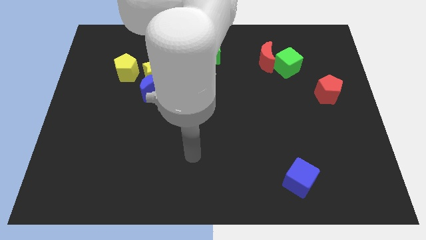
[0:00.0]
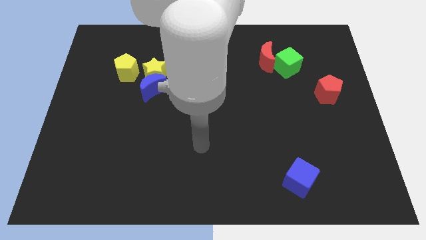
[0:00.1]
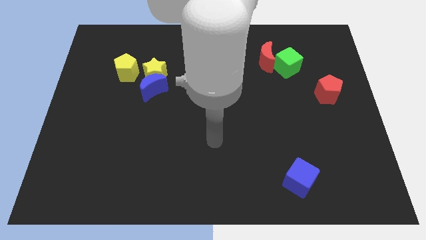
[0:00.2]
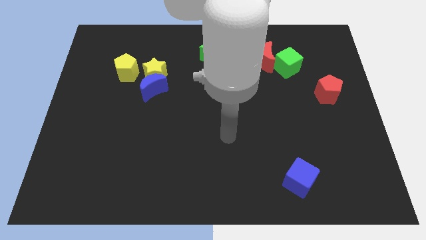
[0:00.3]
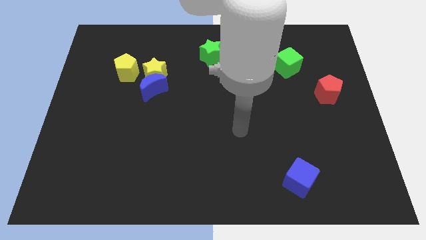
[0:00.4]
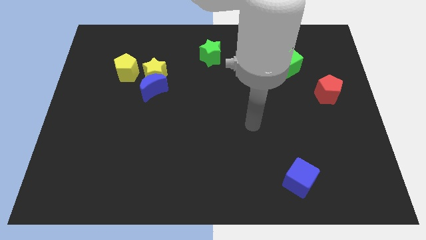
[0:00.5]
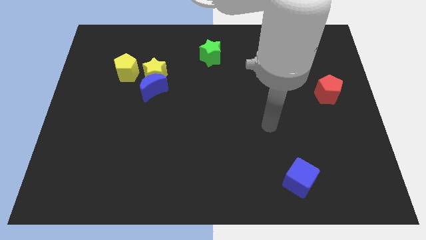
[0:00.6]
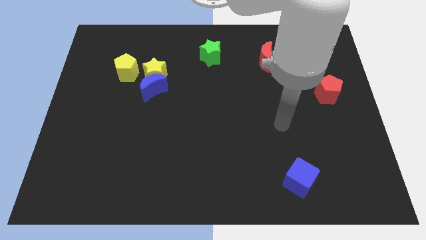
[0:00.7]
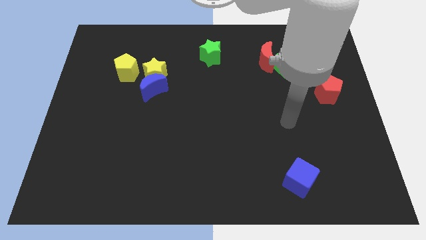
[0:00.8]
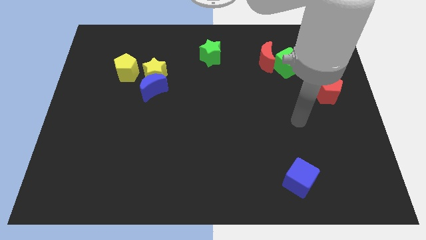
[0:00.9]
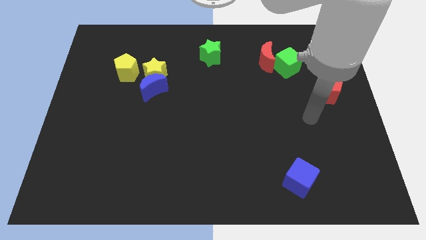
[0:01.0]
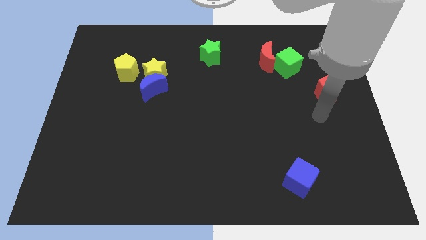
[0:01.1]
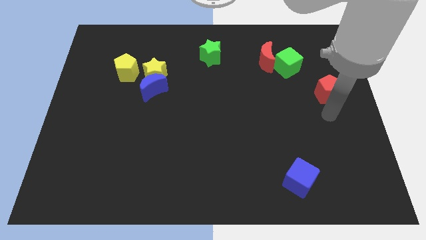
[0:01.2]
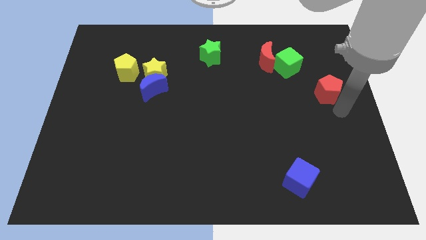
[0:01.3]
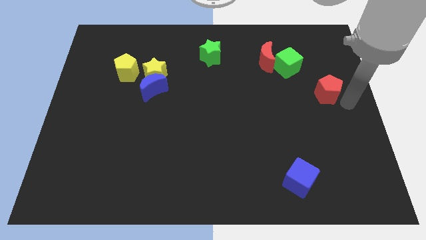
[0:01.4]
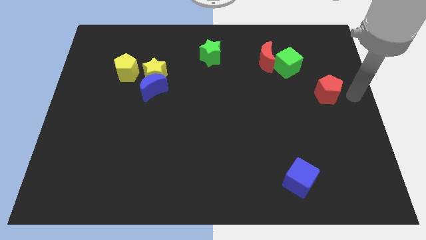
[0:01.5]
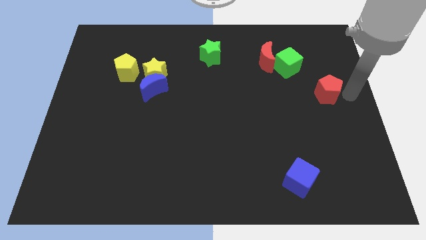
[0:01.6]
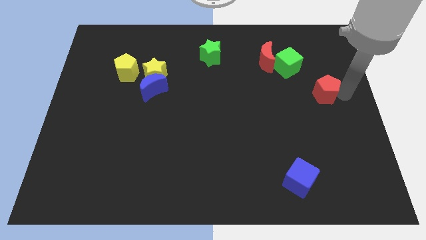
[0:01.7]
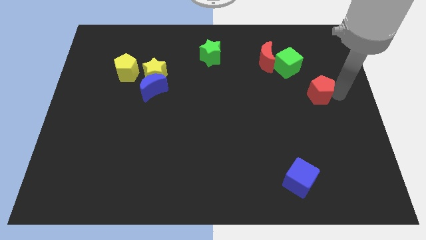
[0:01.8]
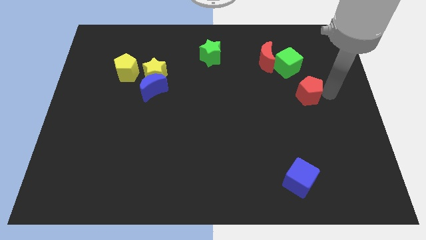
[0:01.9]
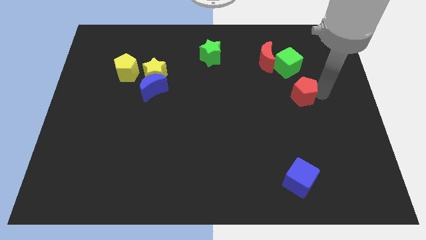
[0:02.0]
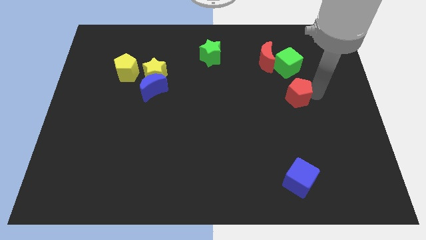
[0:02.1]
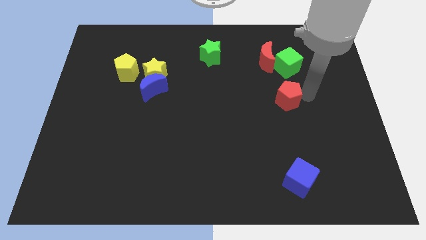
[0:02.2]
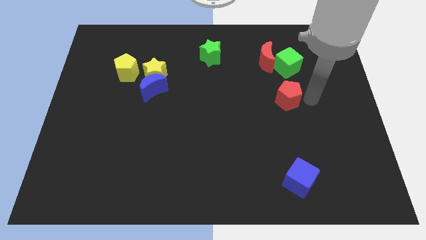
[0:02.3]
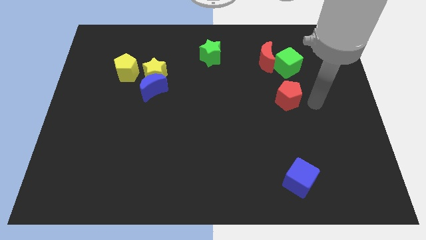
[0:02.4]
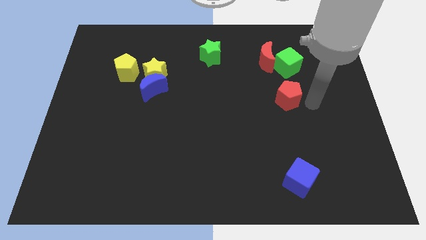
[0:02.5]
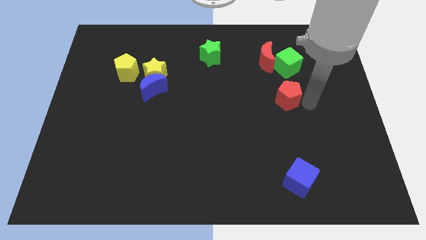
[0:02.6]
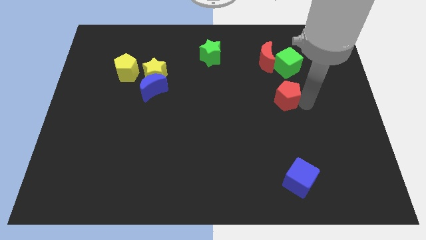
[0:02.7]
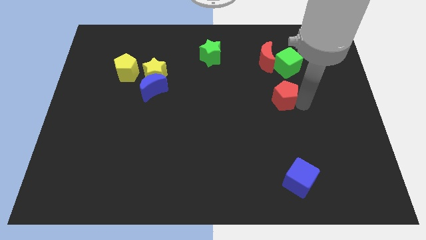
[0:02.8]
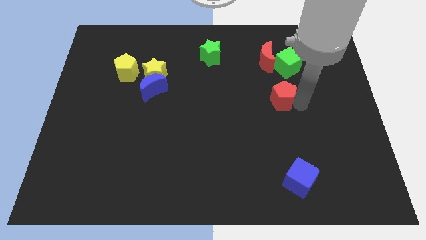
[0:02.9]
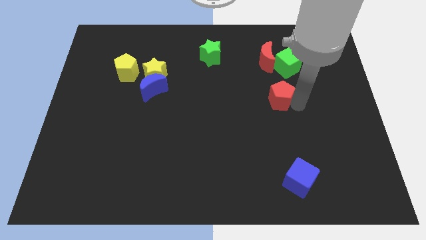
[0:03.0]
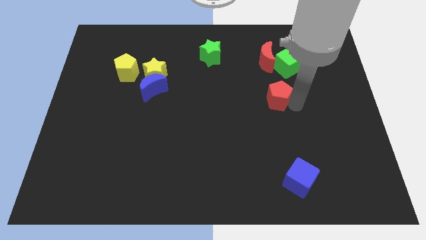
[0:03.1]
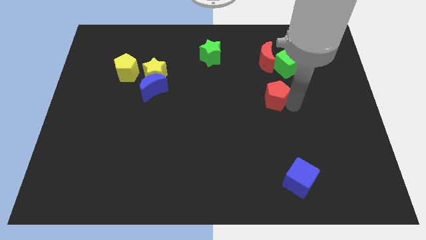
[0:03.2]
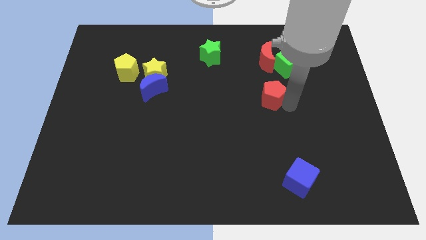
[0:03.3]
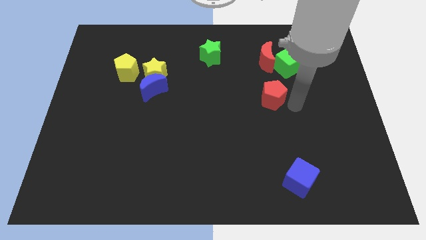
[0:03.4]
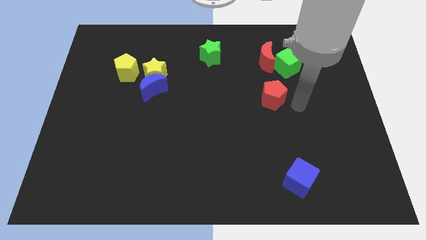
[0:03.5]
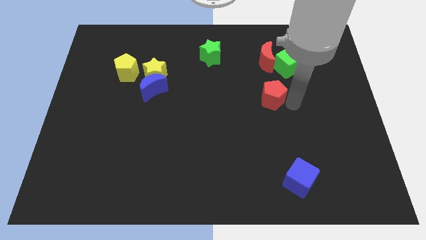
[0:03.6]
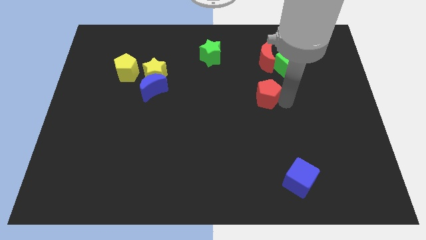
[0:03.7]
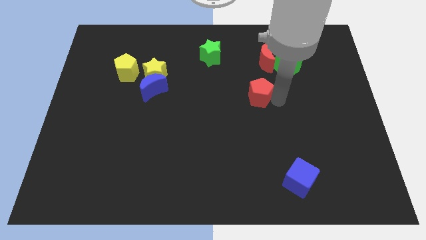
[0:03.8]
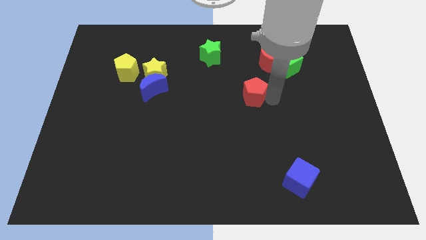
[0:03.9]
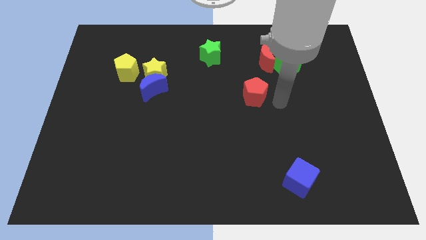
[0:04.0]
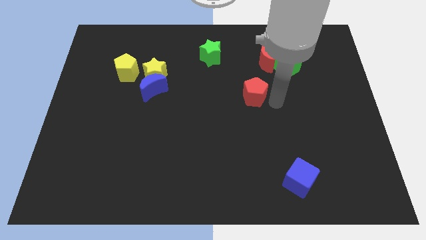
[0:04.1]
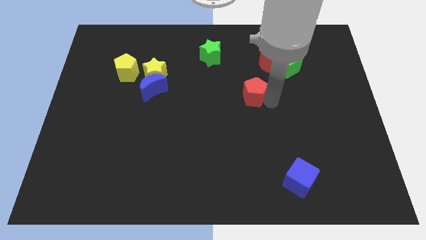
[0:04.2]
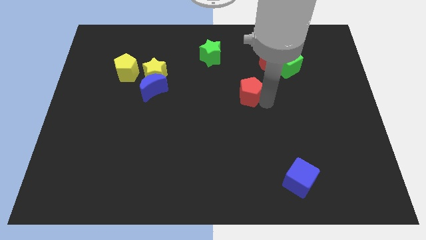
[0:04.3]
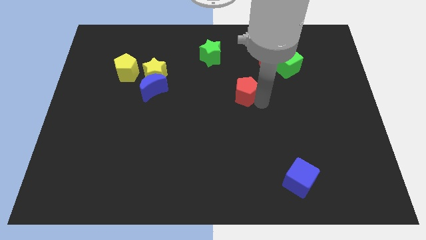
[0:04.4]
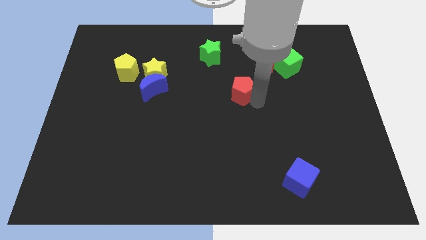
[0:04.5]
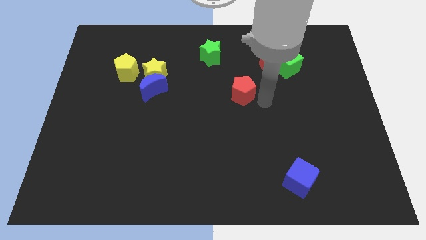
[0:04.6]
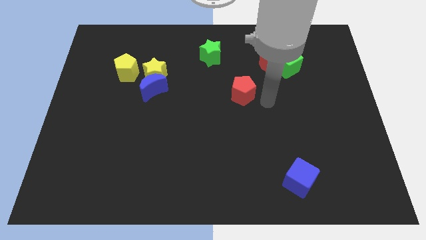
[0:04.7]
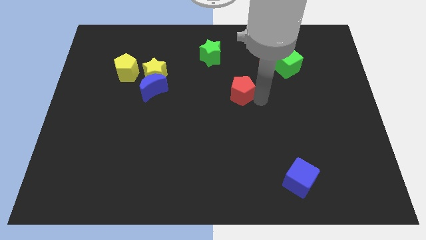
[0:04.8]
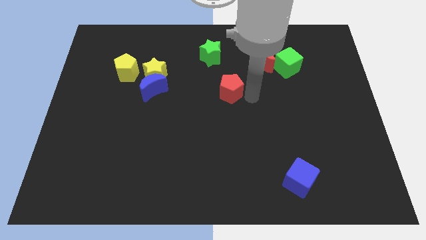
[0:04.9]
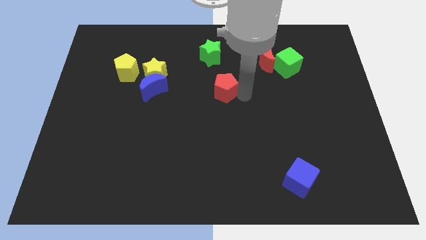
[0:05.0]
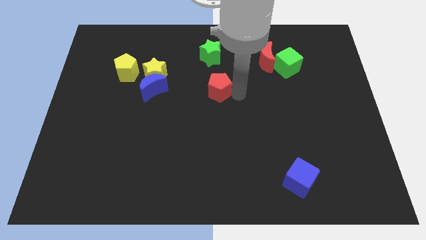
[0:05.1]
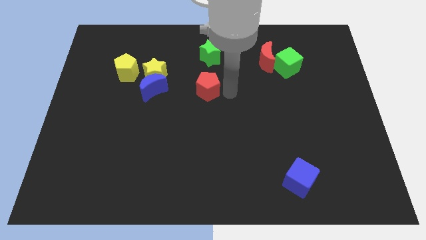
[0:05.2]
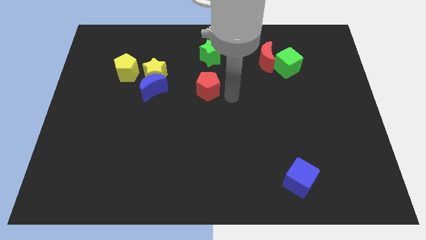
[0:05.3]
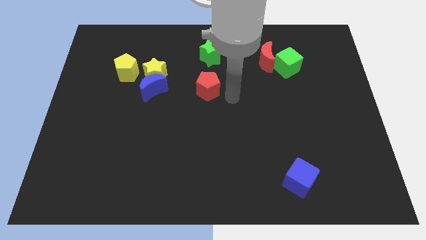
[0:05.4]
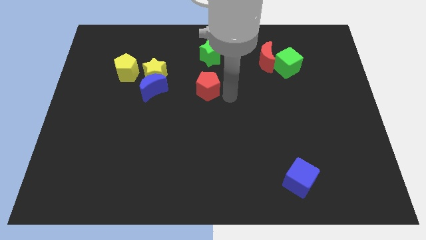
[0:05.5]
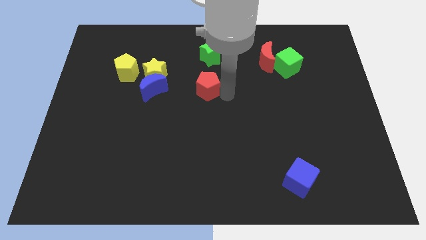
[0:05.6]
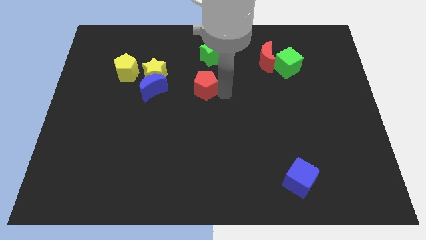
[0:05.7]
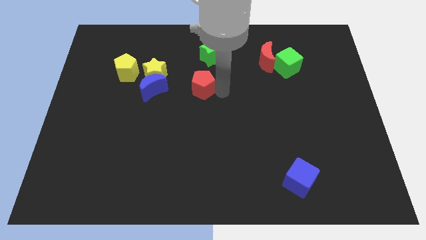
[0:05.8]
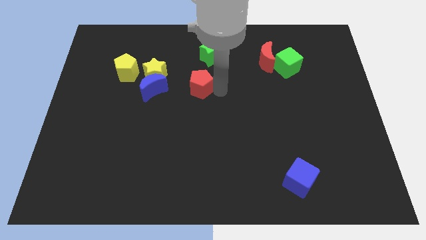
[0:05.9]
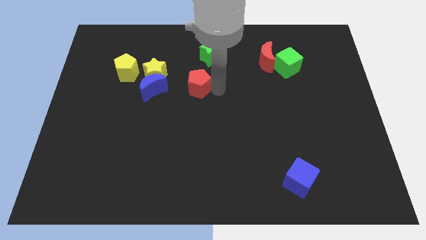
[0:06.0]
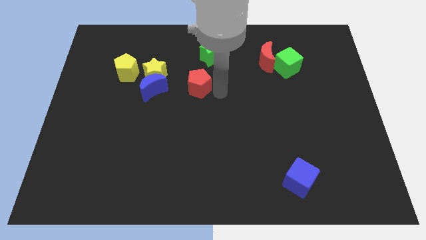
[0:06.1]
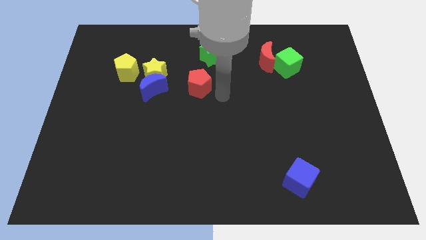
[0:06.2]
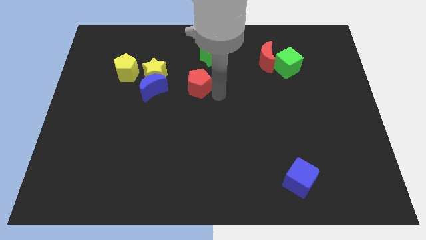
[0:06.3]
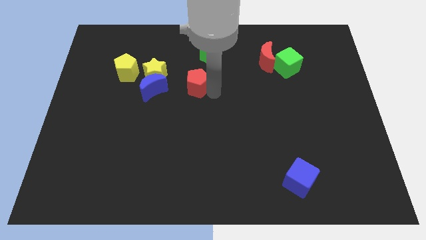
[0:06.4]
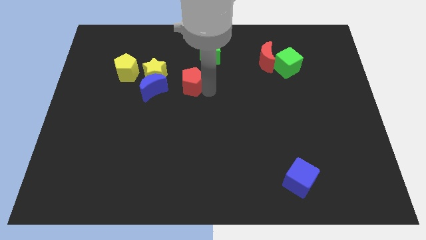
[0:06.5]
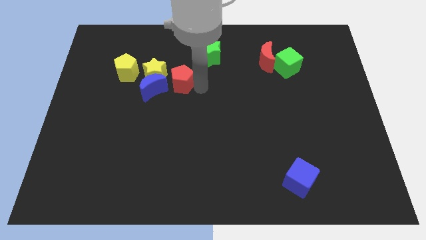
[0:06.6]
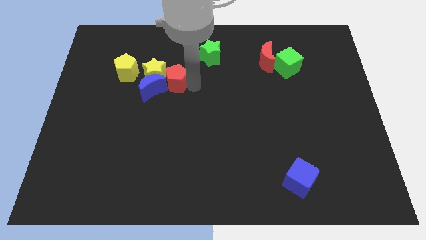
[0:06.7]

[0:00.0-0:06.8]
slide the red pentagon close to the yellow star
